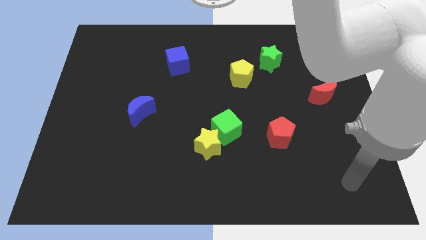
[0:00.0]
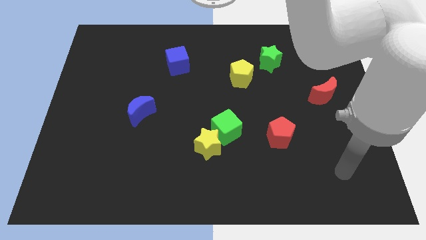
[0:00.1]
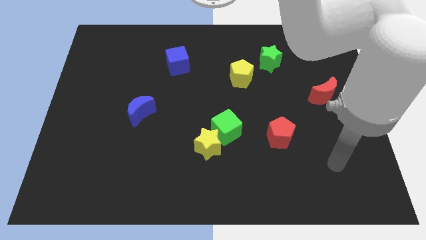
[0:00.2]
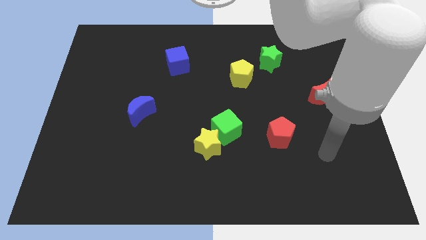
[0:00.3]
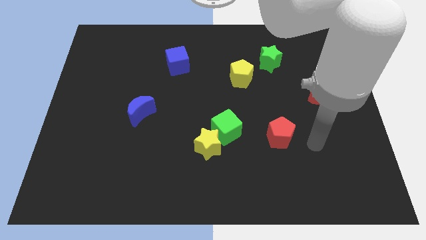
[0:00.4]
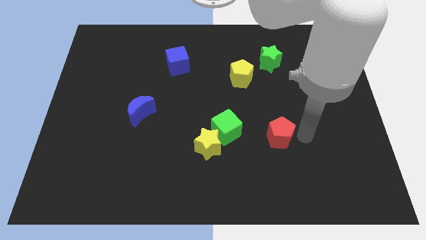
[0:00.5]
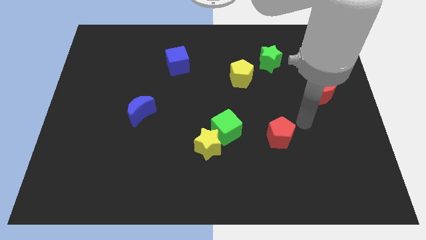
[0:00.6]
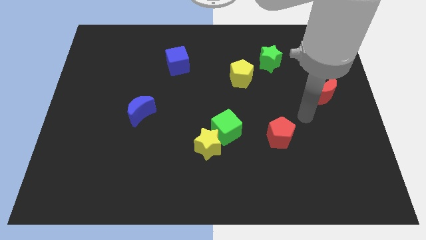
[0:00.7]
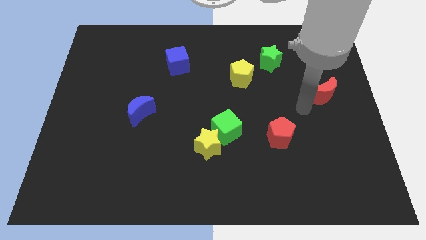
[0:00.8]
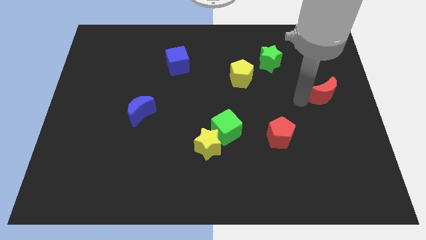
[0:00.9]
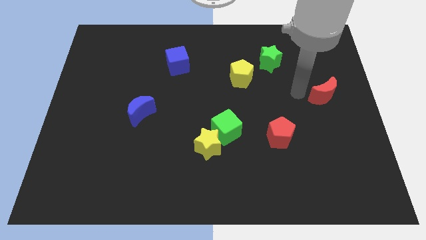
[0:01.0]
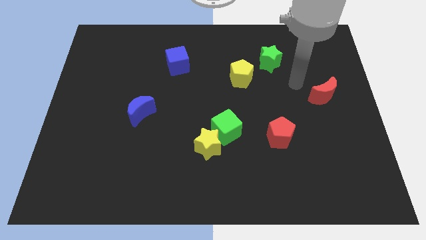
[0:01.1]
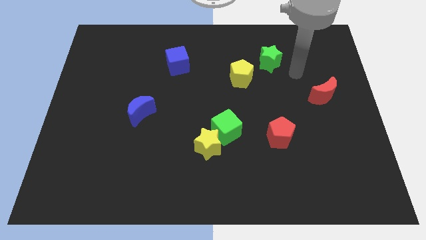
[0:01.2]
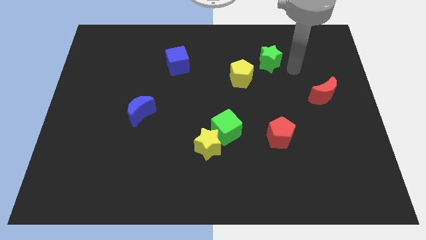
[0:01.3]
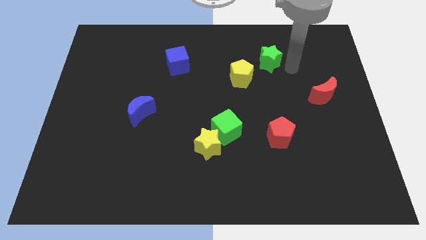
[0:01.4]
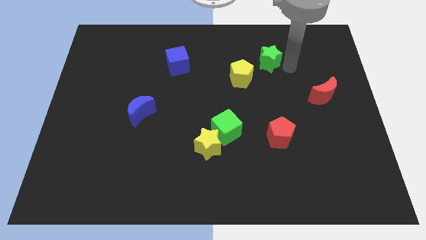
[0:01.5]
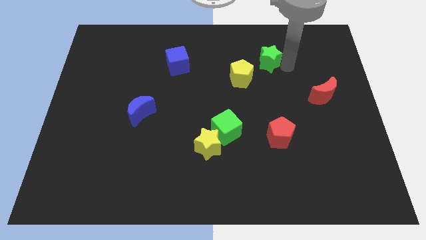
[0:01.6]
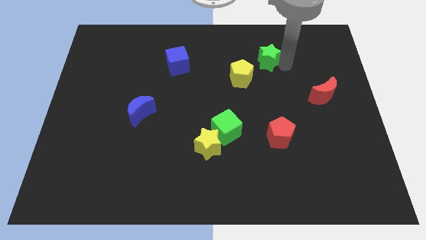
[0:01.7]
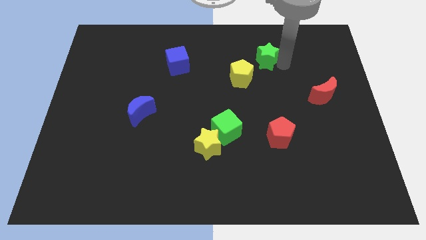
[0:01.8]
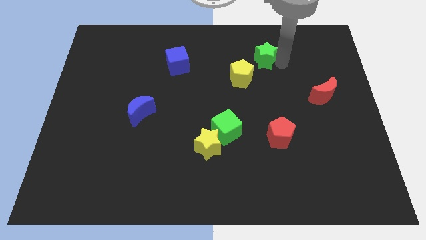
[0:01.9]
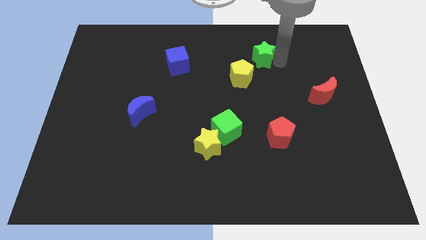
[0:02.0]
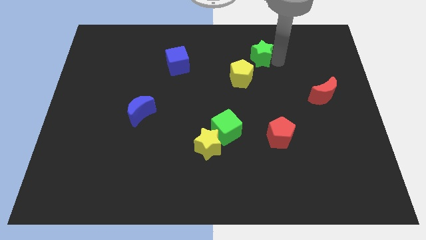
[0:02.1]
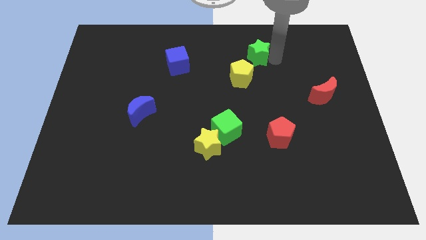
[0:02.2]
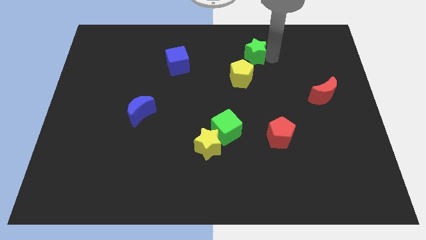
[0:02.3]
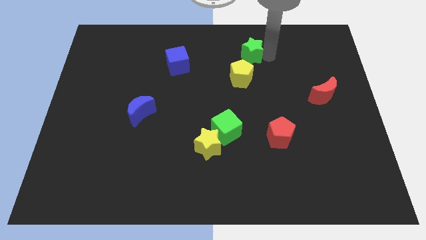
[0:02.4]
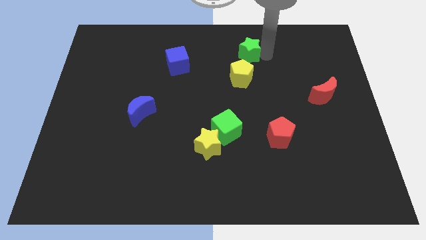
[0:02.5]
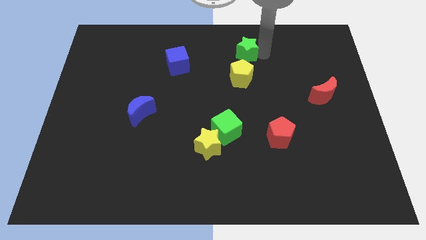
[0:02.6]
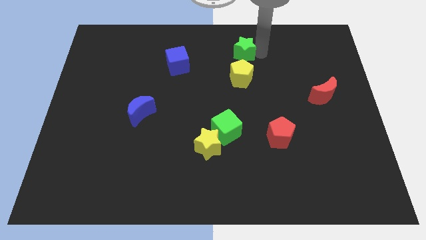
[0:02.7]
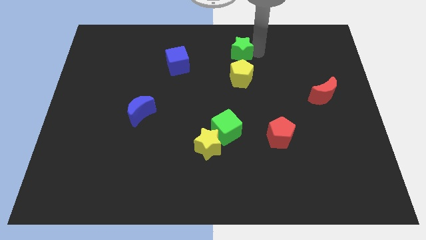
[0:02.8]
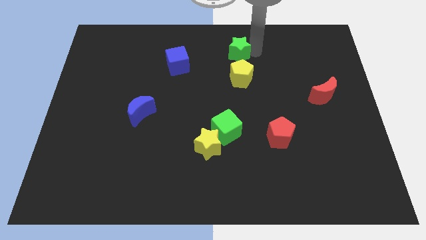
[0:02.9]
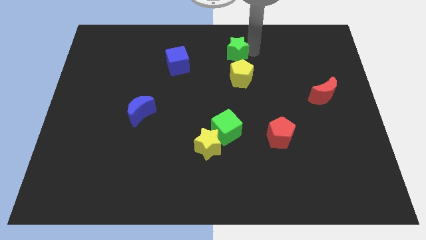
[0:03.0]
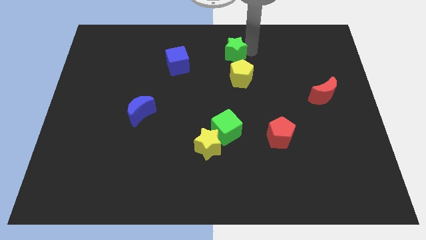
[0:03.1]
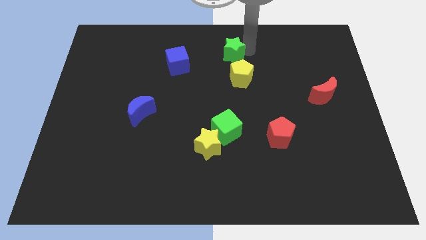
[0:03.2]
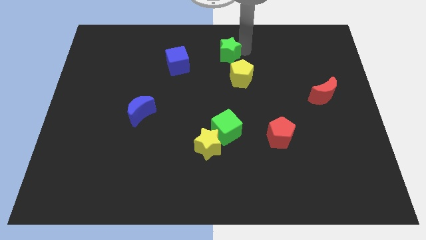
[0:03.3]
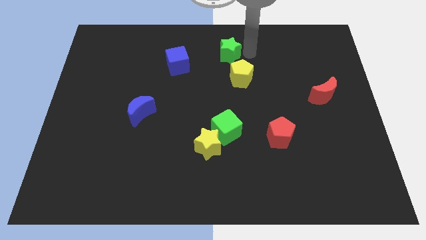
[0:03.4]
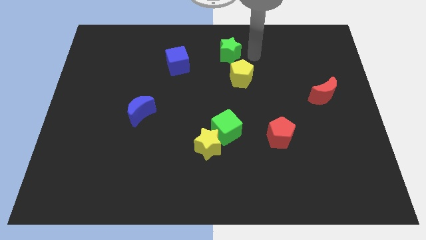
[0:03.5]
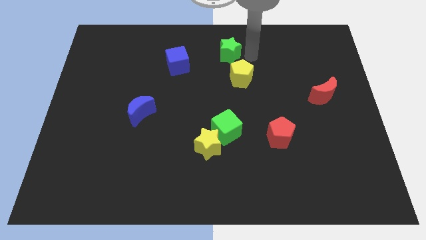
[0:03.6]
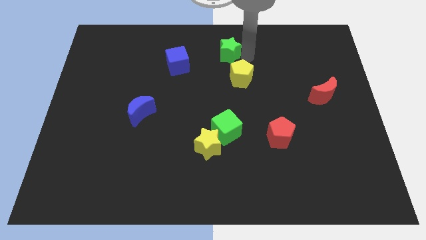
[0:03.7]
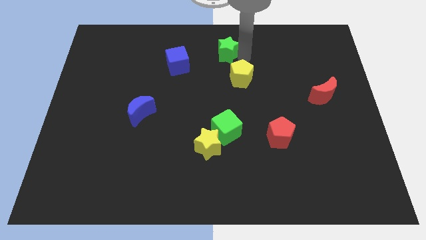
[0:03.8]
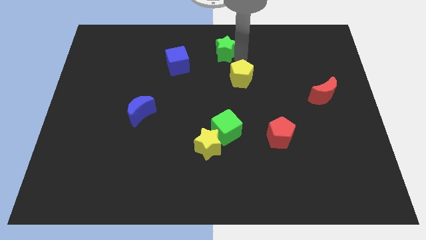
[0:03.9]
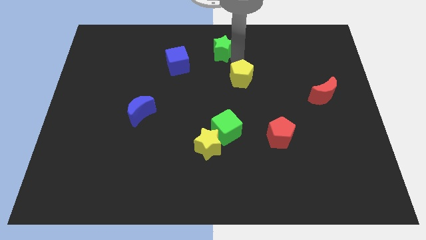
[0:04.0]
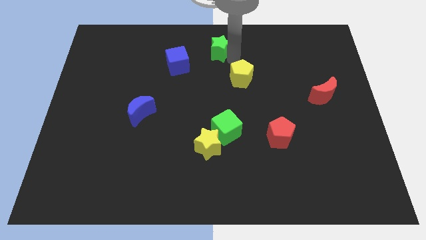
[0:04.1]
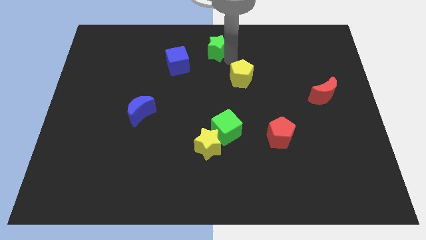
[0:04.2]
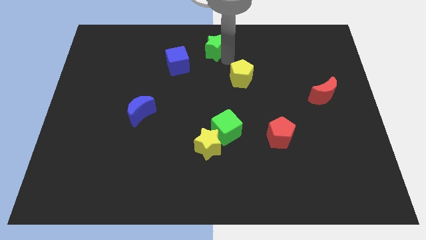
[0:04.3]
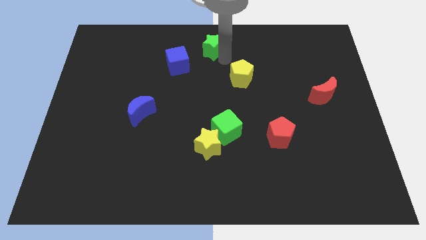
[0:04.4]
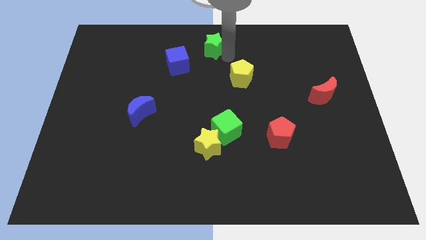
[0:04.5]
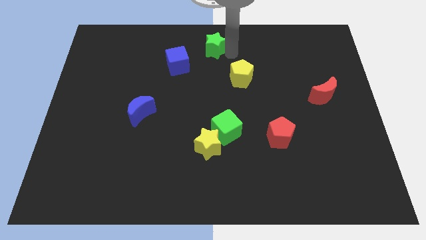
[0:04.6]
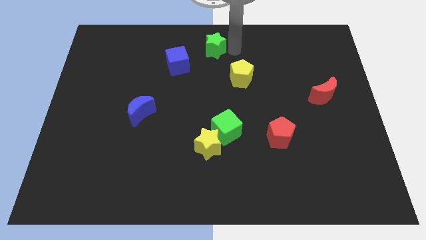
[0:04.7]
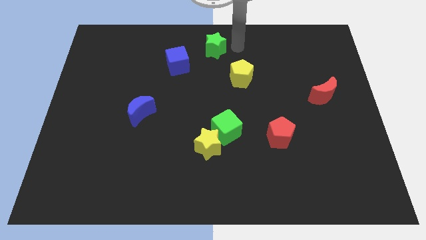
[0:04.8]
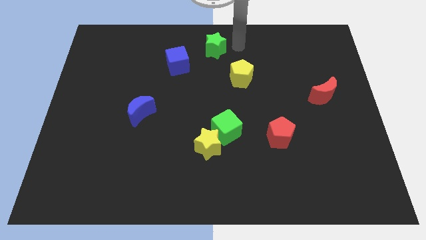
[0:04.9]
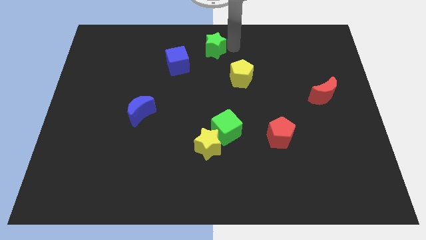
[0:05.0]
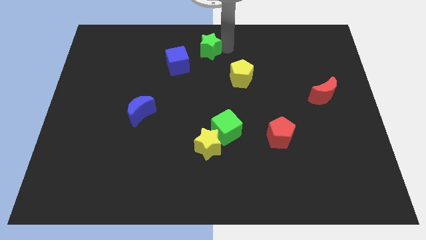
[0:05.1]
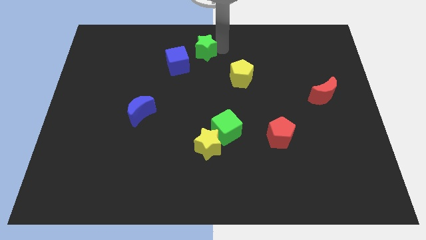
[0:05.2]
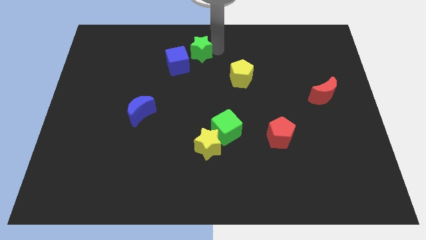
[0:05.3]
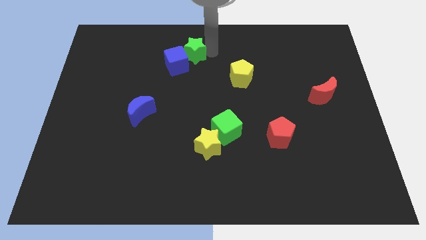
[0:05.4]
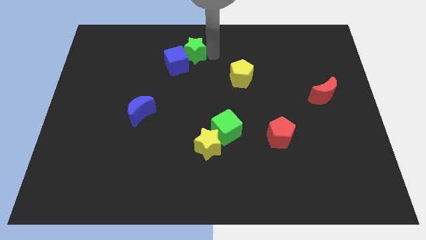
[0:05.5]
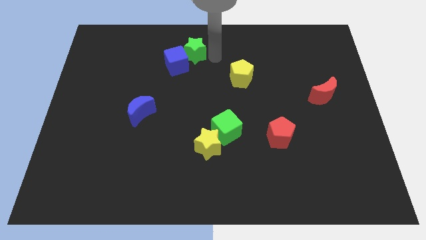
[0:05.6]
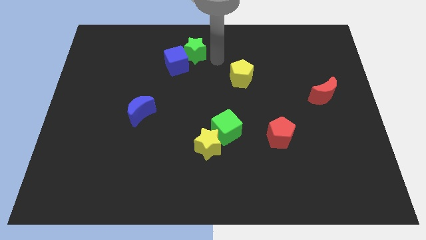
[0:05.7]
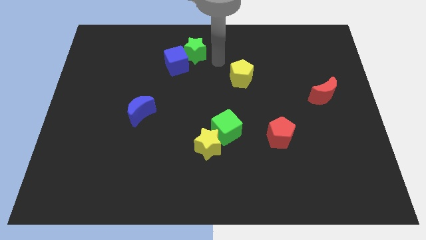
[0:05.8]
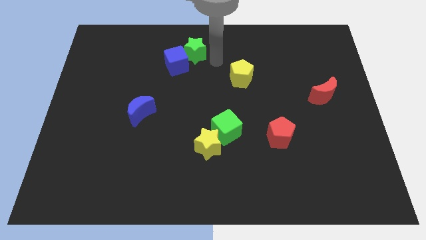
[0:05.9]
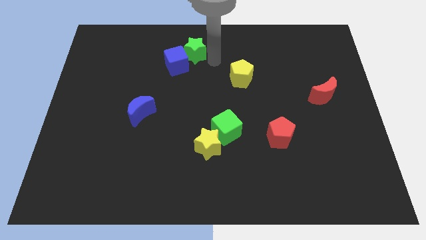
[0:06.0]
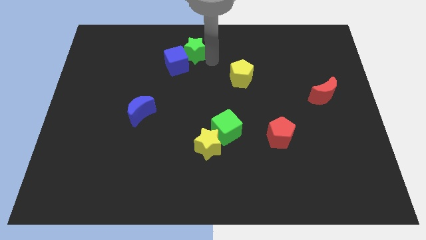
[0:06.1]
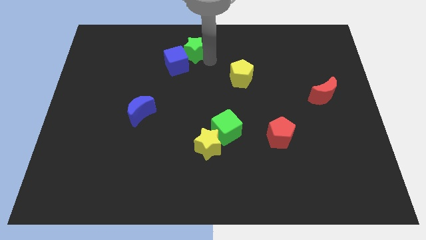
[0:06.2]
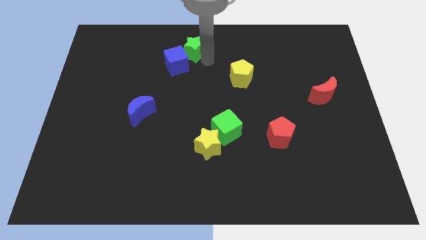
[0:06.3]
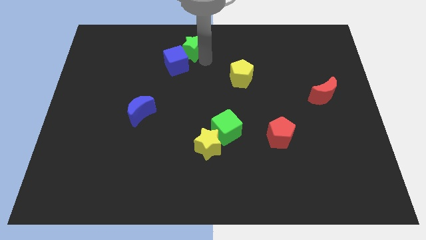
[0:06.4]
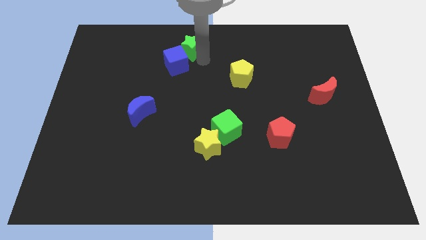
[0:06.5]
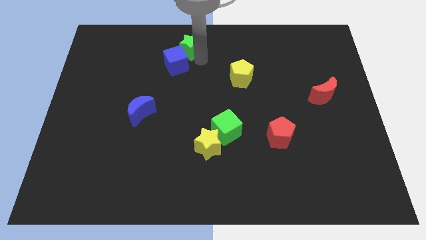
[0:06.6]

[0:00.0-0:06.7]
push the green star to the left

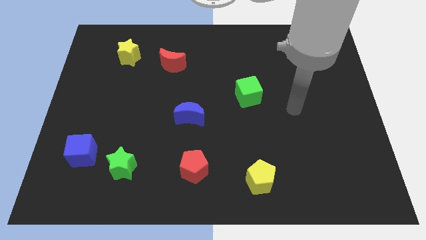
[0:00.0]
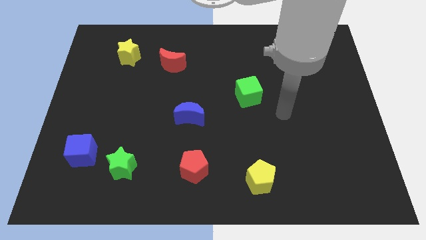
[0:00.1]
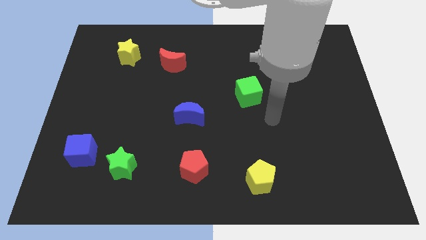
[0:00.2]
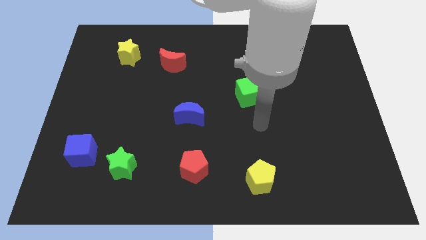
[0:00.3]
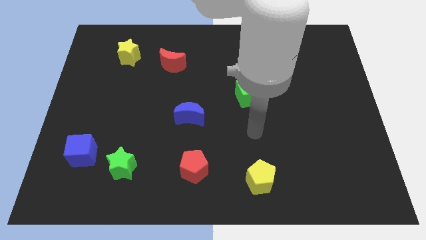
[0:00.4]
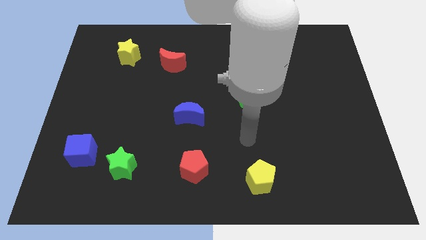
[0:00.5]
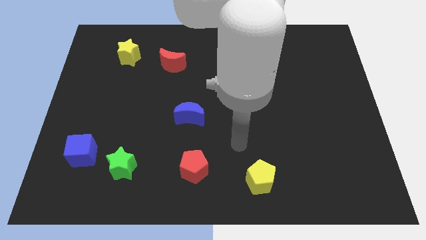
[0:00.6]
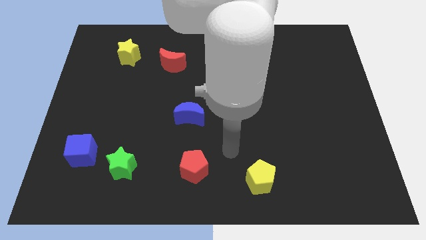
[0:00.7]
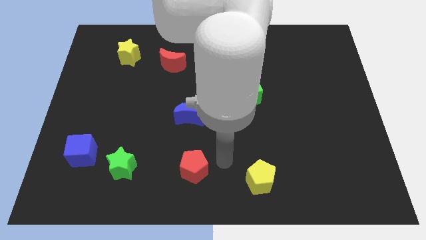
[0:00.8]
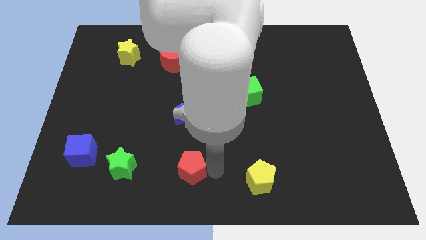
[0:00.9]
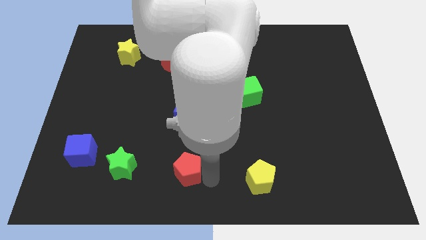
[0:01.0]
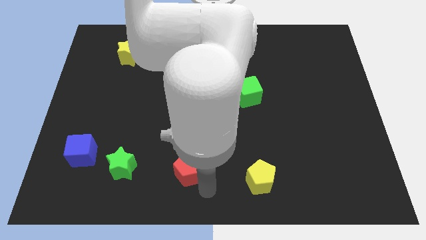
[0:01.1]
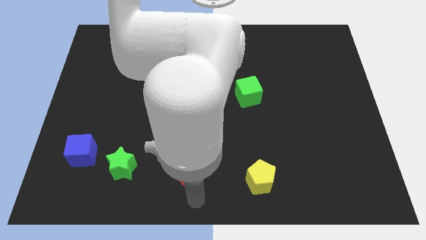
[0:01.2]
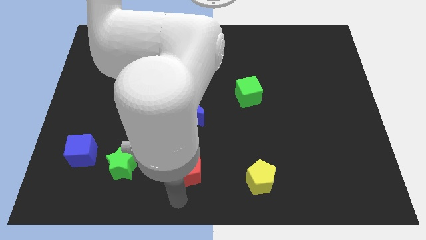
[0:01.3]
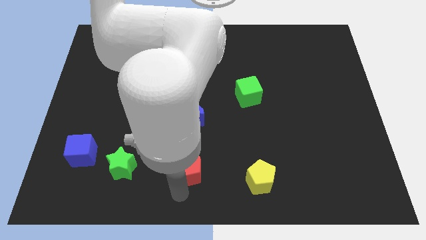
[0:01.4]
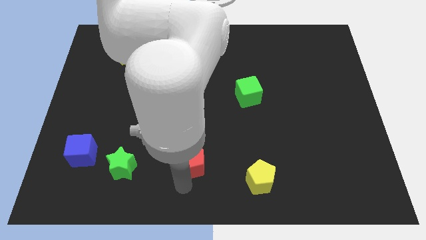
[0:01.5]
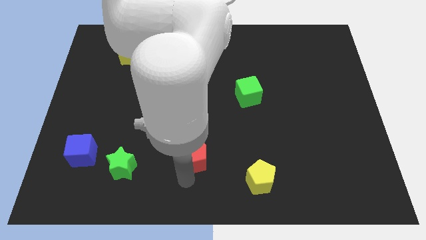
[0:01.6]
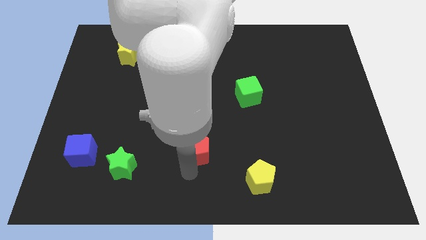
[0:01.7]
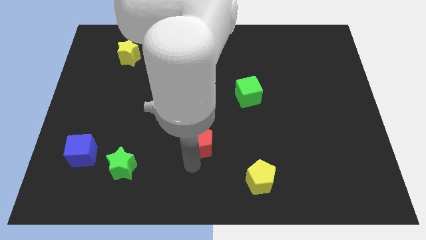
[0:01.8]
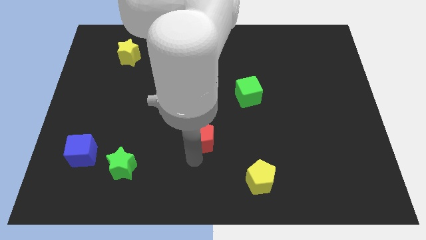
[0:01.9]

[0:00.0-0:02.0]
move the red pentagon a little upwards
